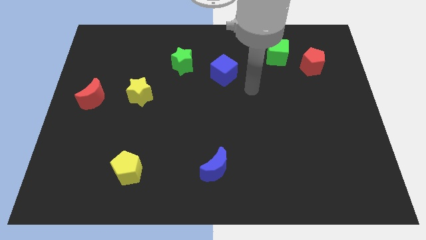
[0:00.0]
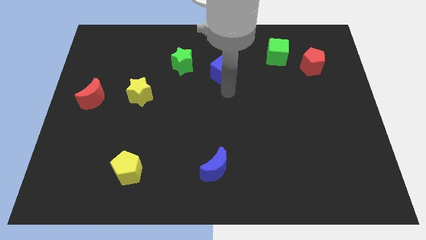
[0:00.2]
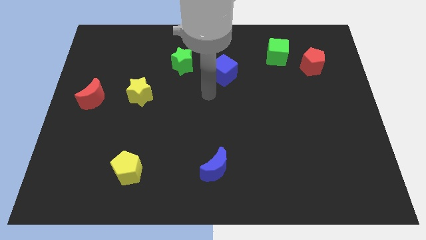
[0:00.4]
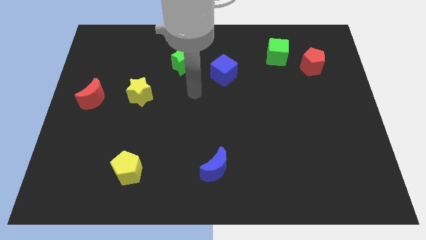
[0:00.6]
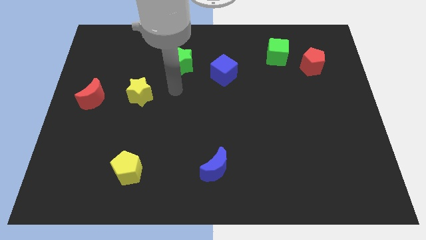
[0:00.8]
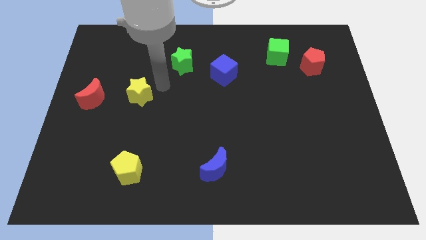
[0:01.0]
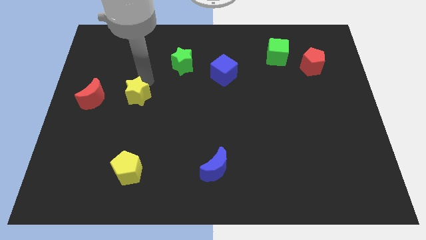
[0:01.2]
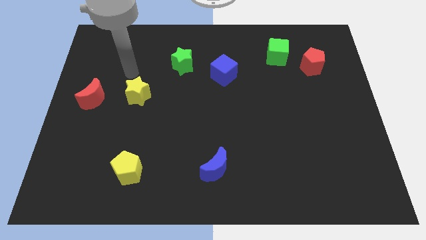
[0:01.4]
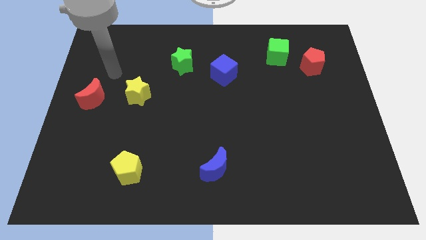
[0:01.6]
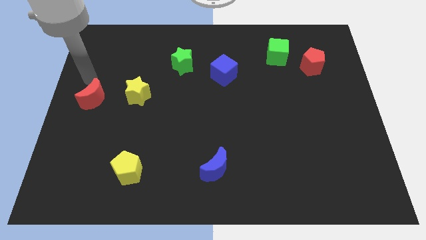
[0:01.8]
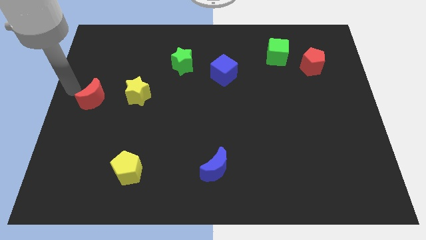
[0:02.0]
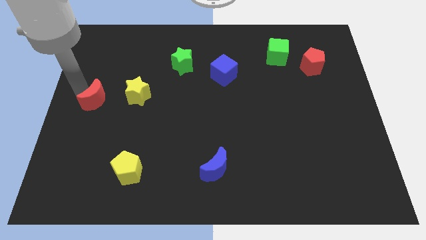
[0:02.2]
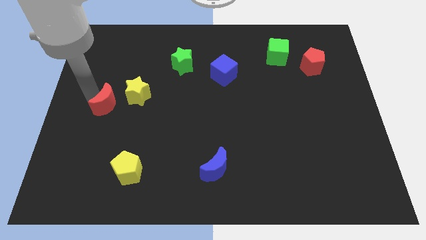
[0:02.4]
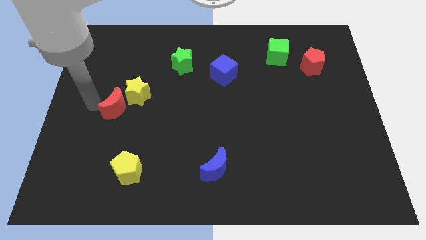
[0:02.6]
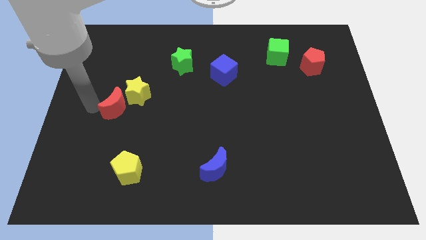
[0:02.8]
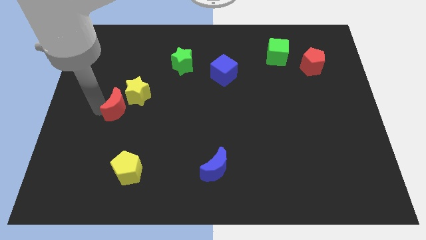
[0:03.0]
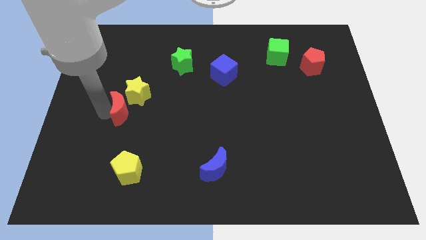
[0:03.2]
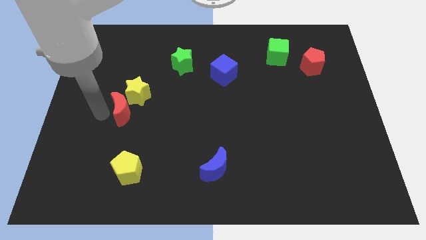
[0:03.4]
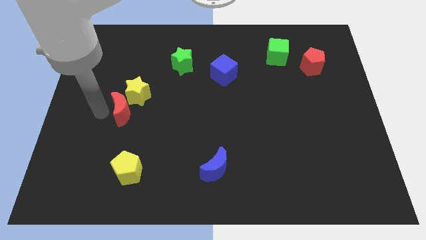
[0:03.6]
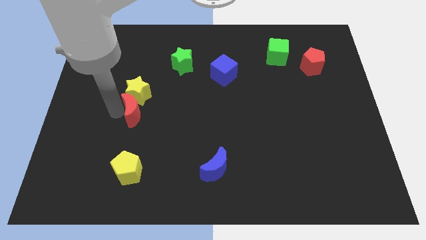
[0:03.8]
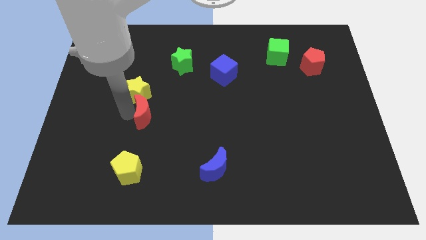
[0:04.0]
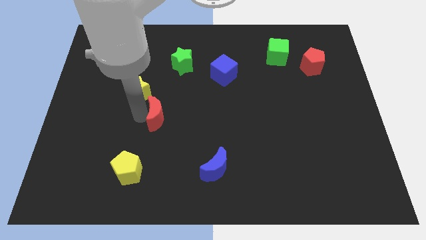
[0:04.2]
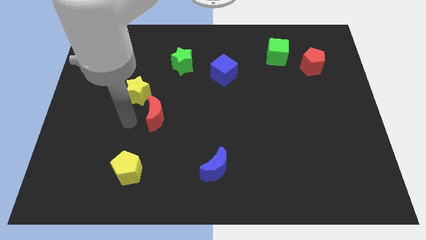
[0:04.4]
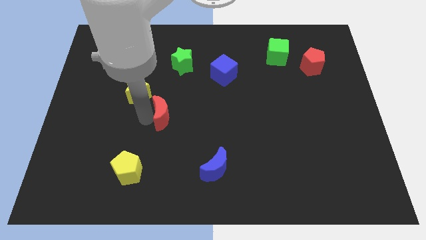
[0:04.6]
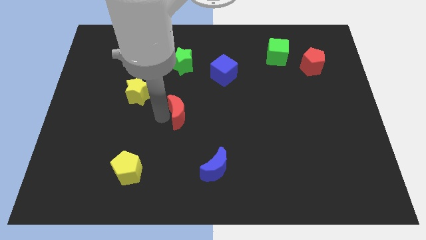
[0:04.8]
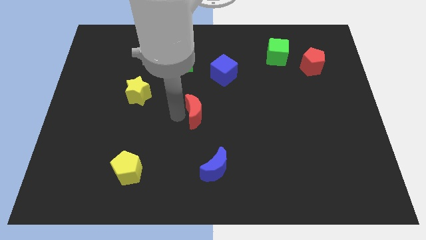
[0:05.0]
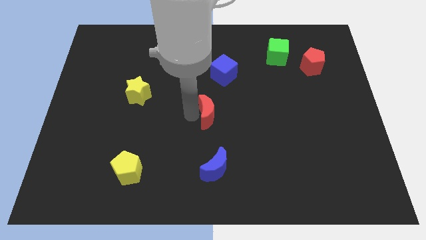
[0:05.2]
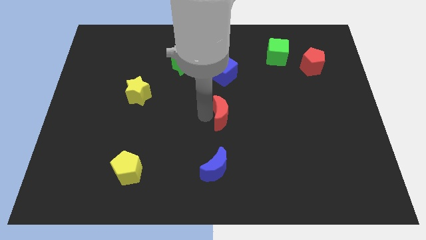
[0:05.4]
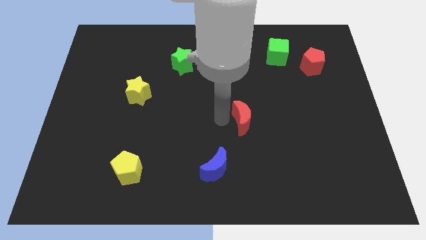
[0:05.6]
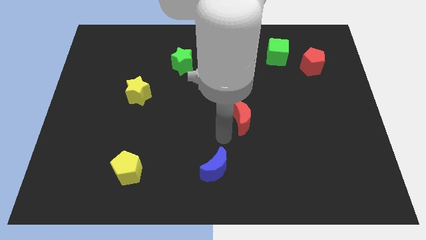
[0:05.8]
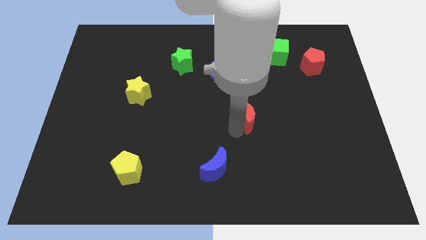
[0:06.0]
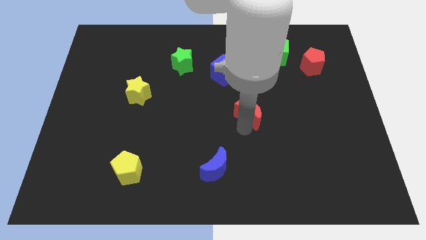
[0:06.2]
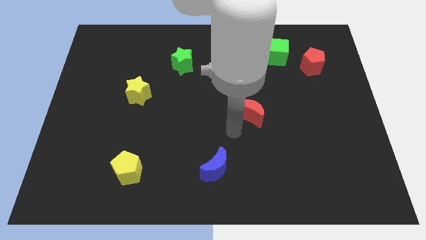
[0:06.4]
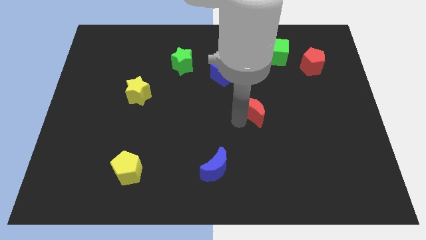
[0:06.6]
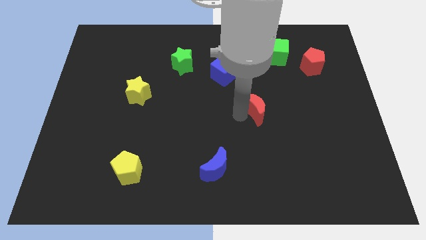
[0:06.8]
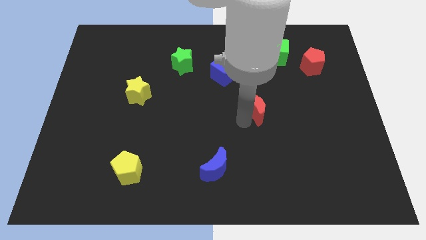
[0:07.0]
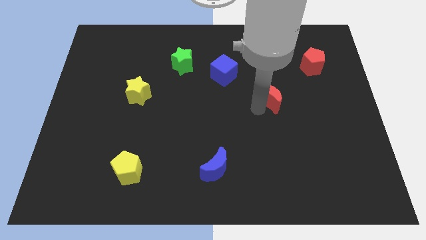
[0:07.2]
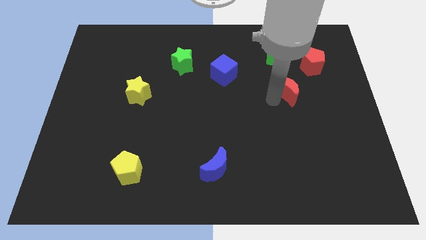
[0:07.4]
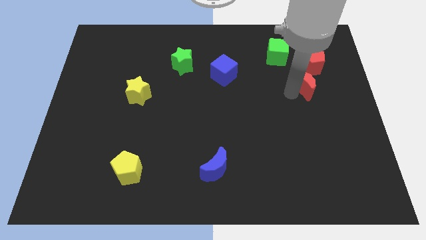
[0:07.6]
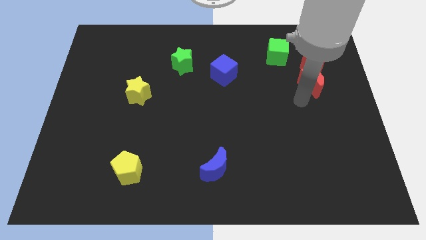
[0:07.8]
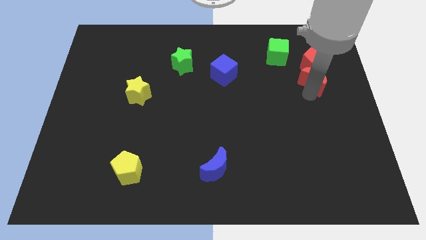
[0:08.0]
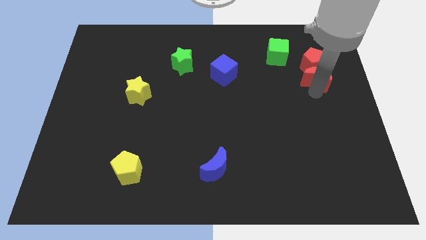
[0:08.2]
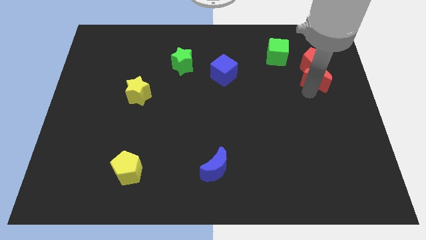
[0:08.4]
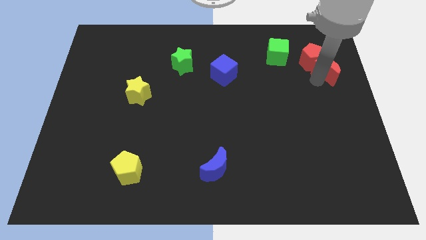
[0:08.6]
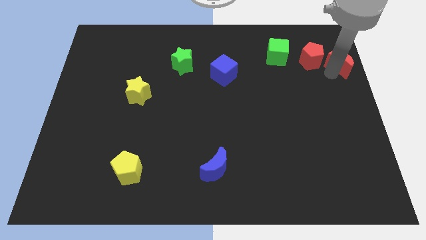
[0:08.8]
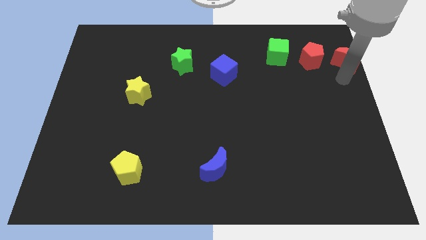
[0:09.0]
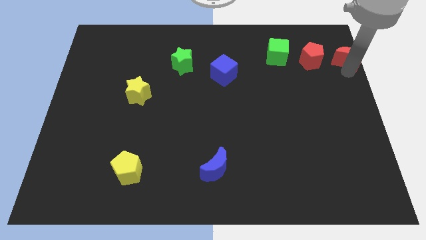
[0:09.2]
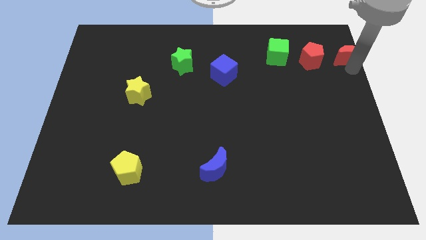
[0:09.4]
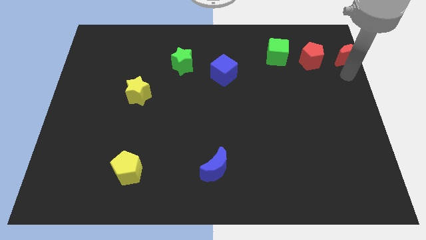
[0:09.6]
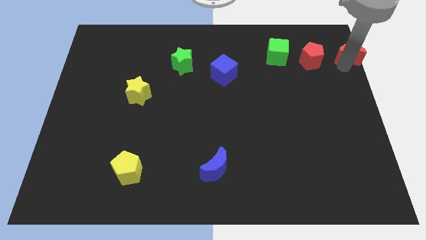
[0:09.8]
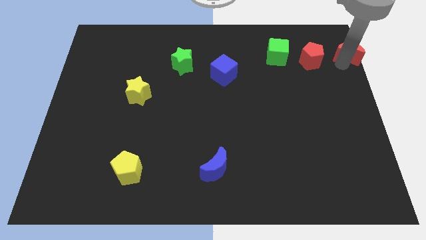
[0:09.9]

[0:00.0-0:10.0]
slide the red moon to the top right corner

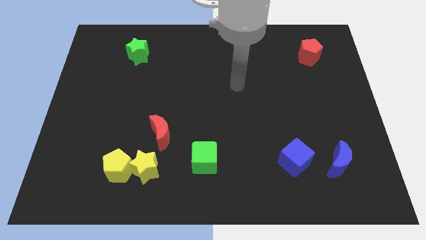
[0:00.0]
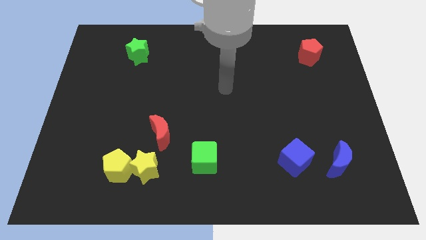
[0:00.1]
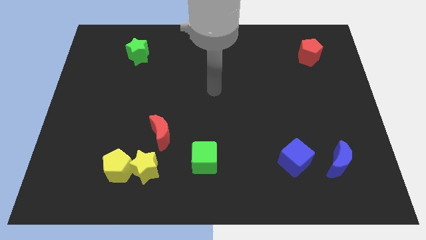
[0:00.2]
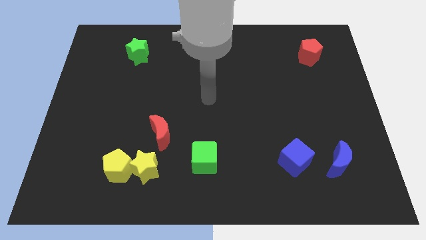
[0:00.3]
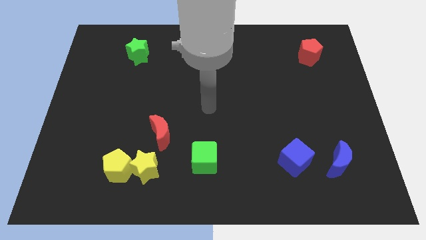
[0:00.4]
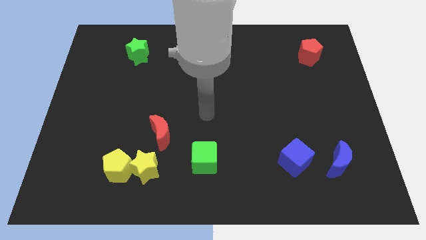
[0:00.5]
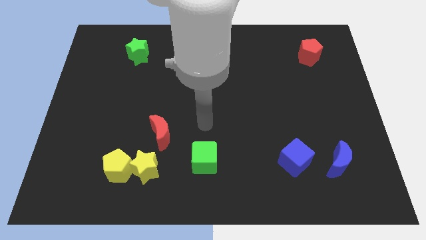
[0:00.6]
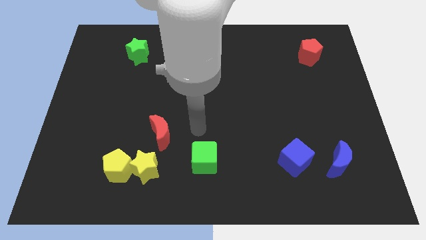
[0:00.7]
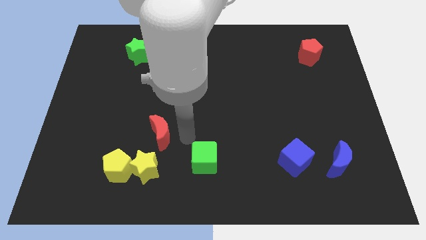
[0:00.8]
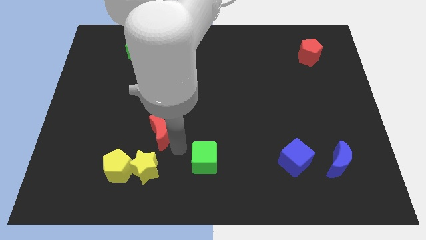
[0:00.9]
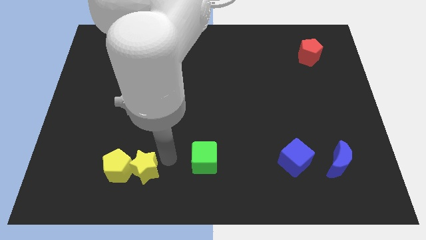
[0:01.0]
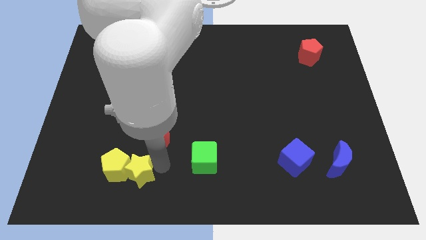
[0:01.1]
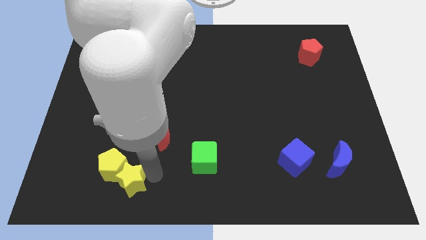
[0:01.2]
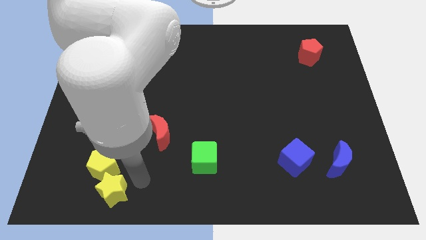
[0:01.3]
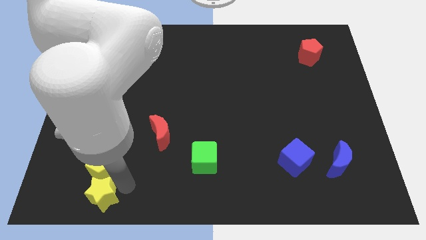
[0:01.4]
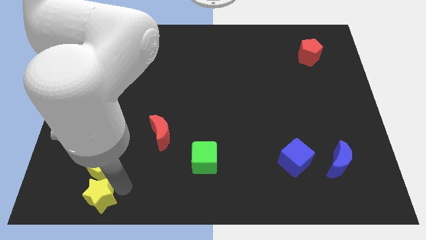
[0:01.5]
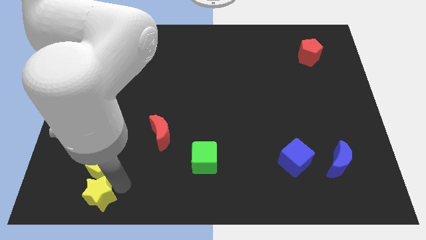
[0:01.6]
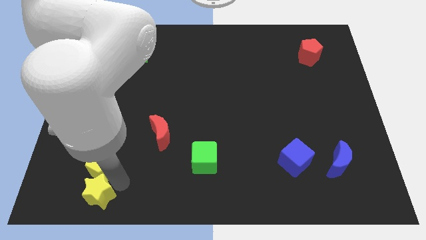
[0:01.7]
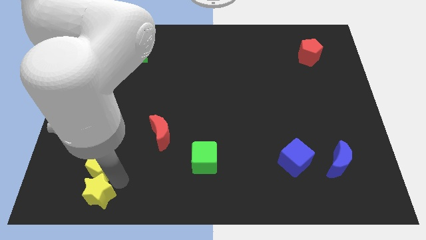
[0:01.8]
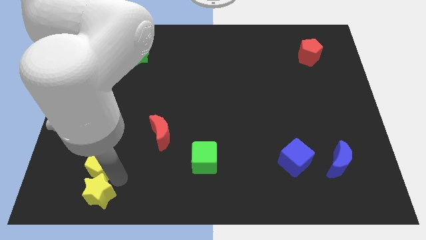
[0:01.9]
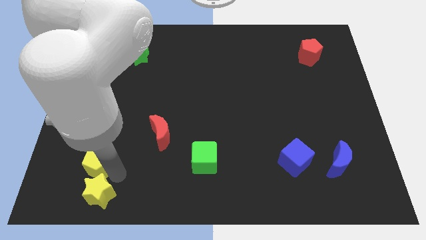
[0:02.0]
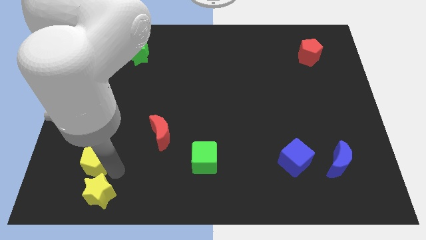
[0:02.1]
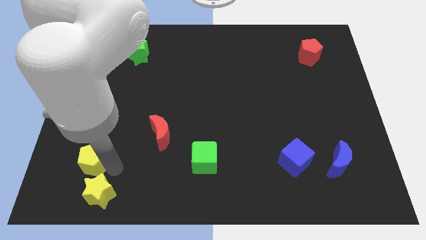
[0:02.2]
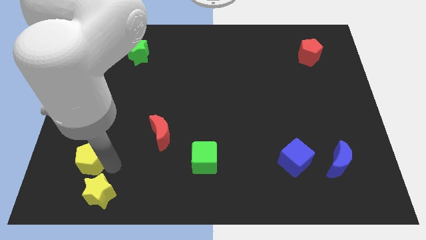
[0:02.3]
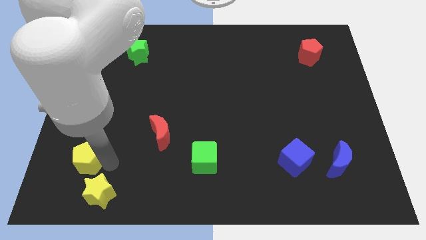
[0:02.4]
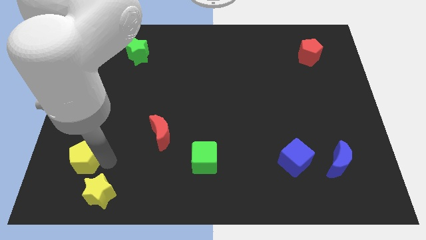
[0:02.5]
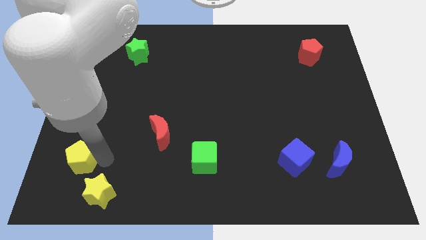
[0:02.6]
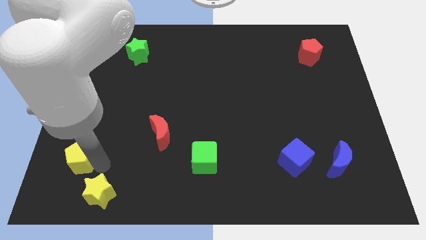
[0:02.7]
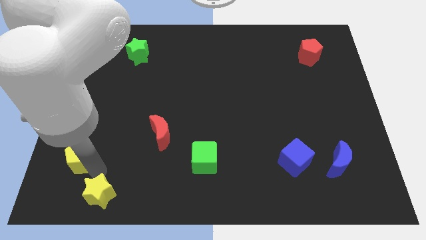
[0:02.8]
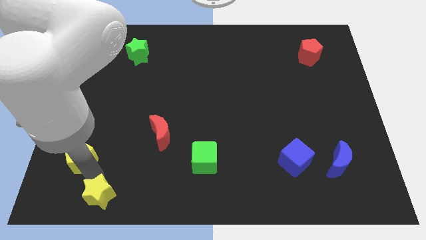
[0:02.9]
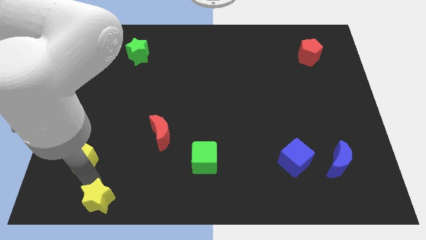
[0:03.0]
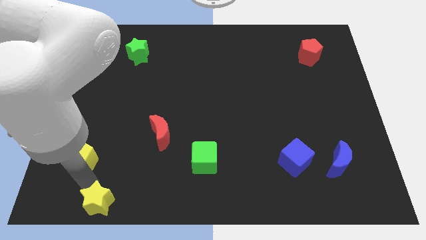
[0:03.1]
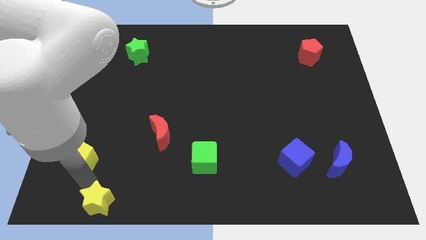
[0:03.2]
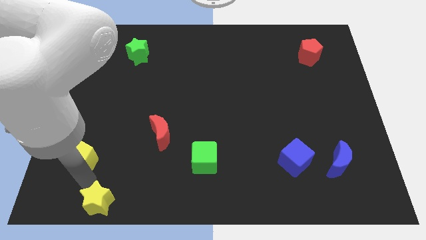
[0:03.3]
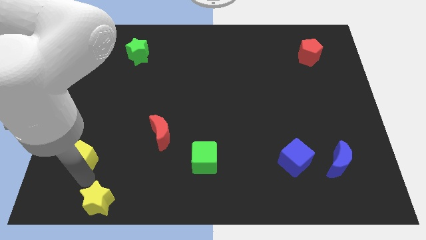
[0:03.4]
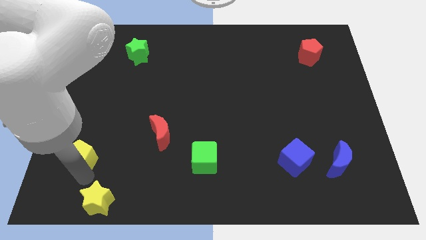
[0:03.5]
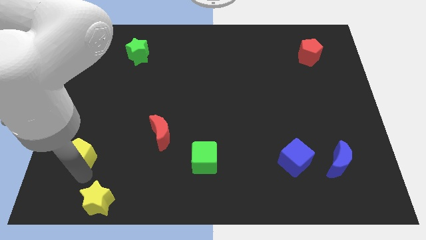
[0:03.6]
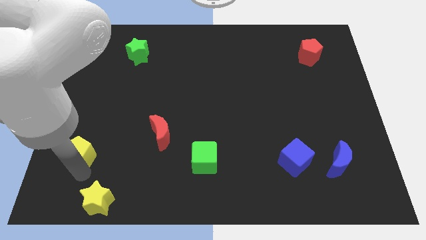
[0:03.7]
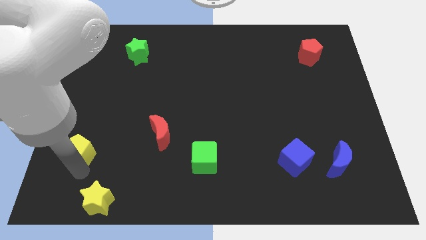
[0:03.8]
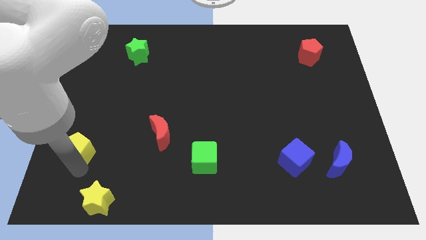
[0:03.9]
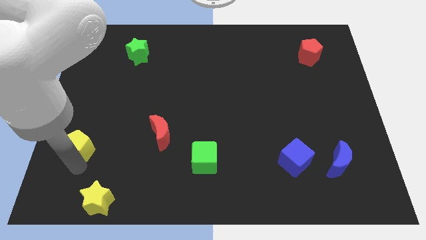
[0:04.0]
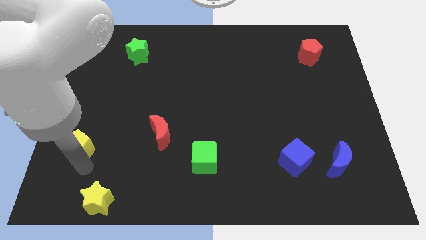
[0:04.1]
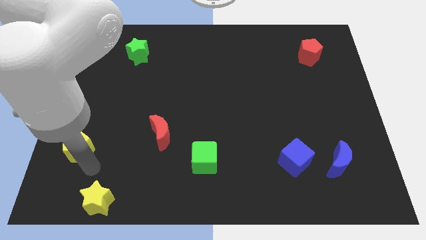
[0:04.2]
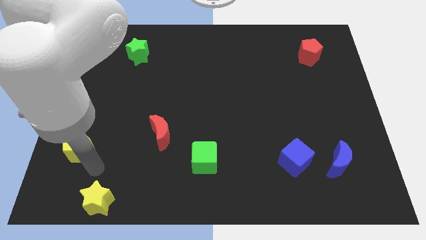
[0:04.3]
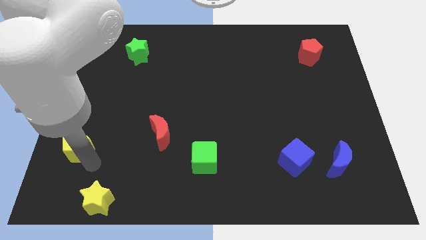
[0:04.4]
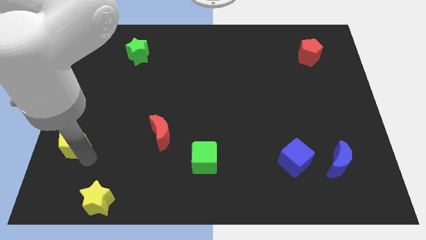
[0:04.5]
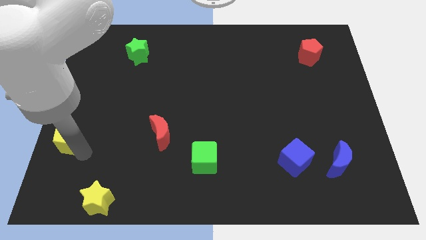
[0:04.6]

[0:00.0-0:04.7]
slide the yellow pentagon to the center left
